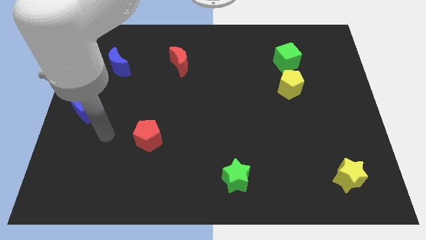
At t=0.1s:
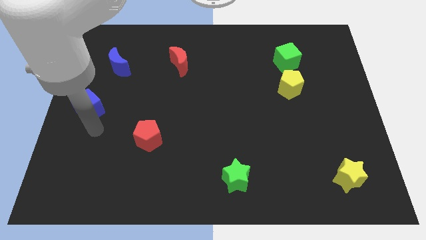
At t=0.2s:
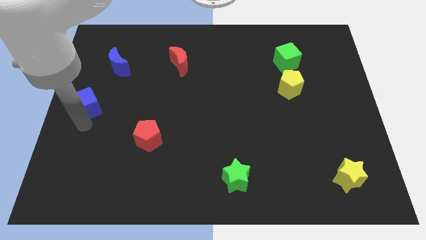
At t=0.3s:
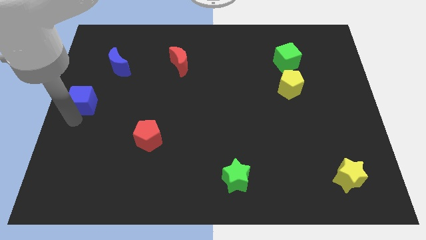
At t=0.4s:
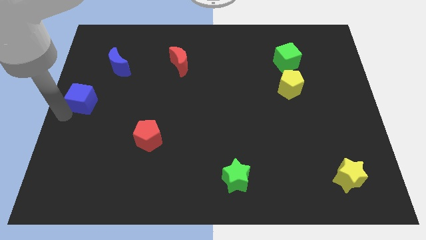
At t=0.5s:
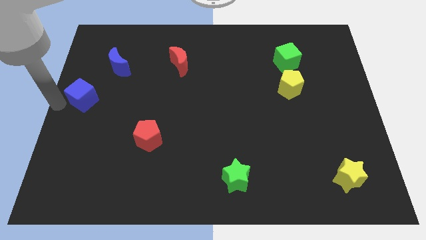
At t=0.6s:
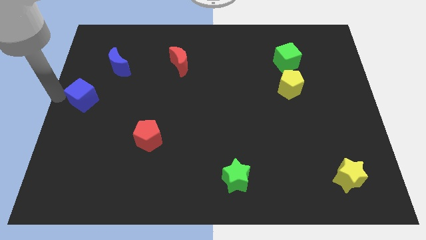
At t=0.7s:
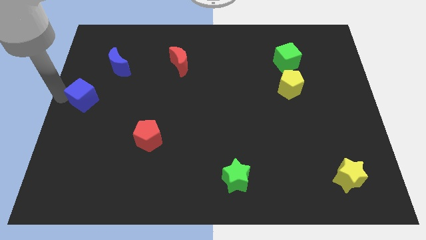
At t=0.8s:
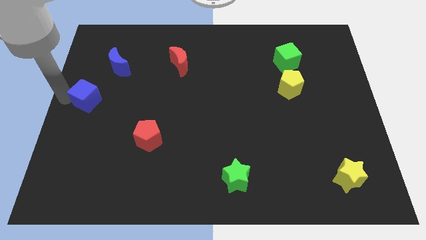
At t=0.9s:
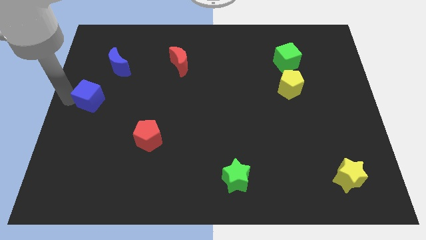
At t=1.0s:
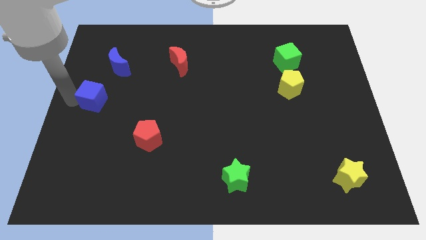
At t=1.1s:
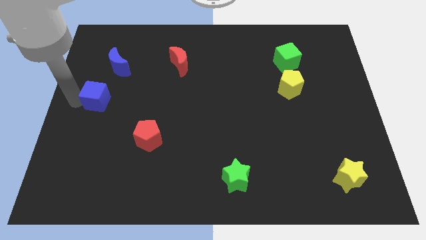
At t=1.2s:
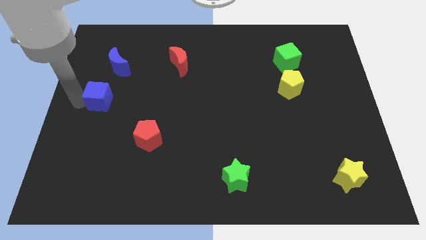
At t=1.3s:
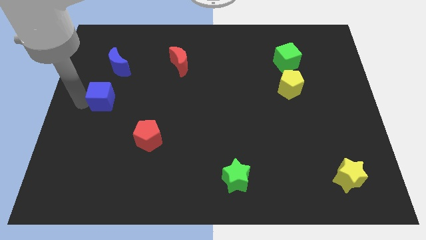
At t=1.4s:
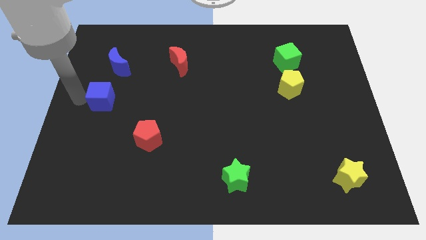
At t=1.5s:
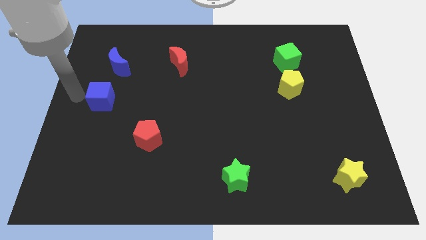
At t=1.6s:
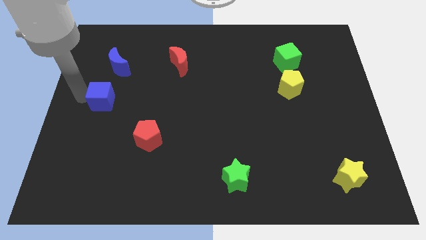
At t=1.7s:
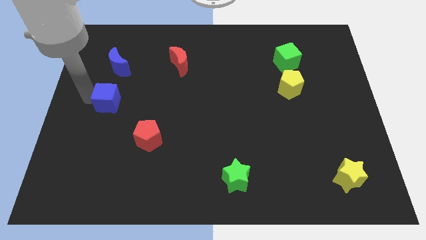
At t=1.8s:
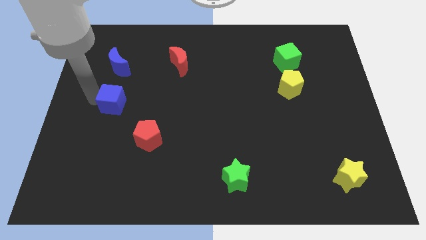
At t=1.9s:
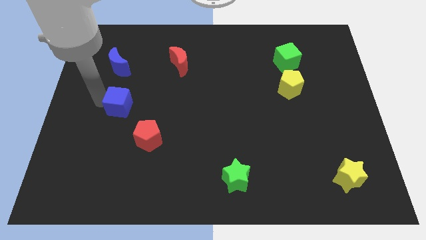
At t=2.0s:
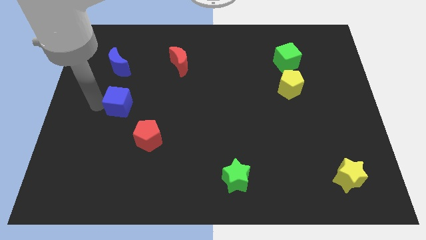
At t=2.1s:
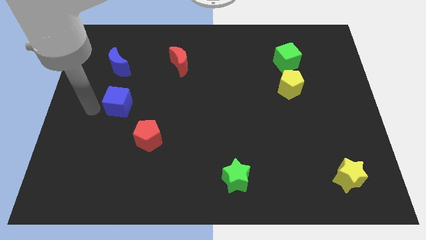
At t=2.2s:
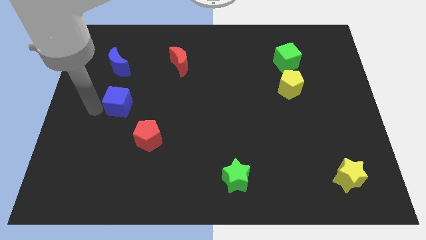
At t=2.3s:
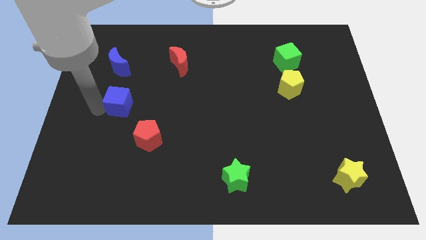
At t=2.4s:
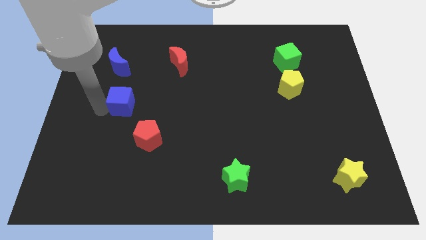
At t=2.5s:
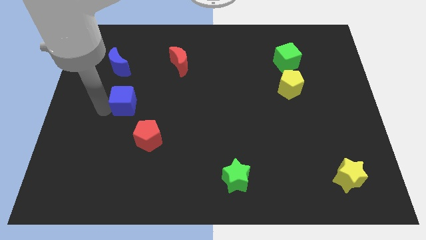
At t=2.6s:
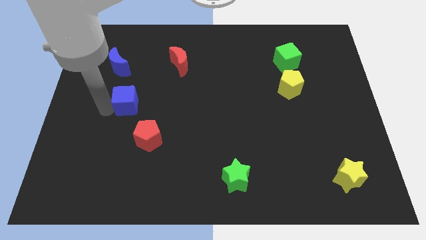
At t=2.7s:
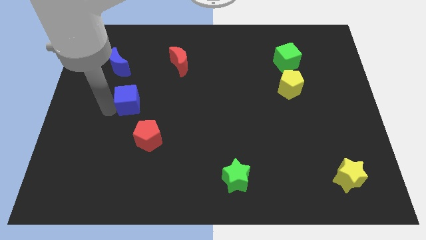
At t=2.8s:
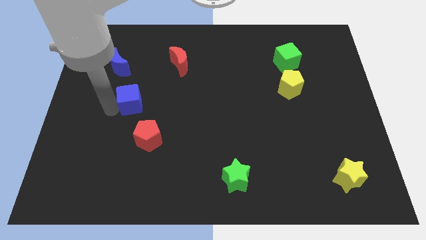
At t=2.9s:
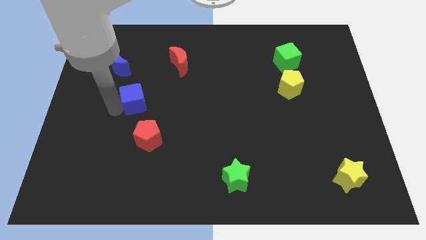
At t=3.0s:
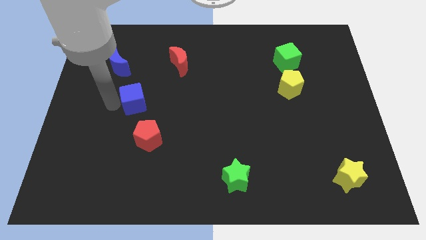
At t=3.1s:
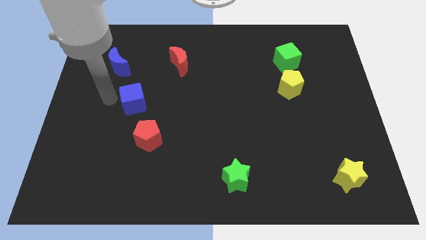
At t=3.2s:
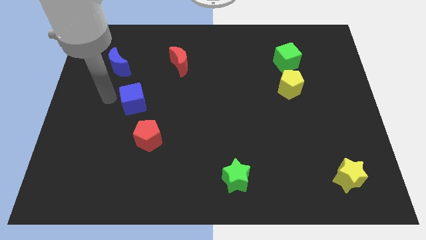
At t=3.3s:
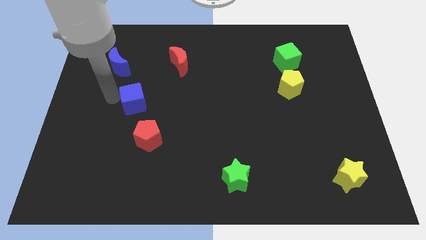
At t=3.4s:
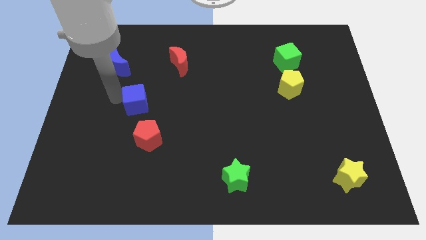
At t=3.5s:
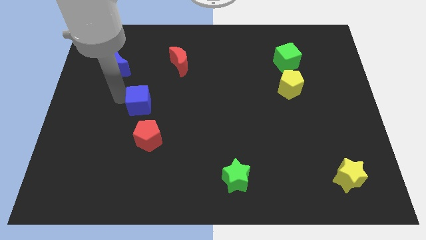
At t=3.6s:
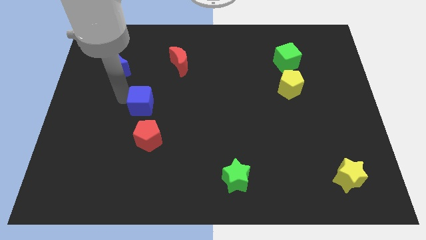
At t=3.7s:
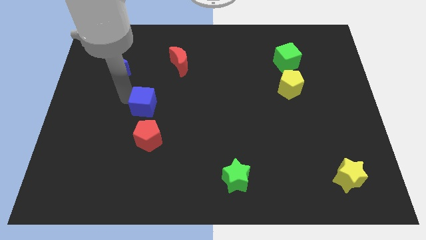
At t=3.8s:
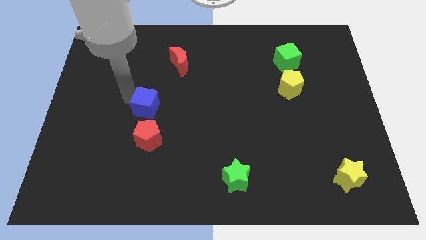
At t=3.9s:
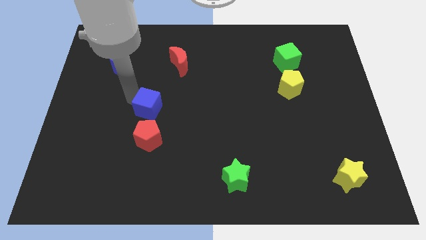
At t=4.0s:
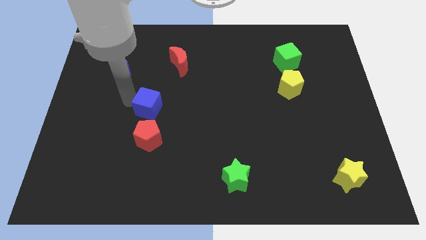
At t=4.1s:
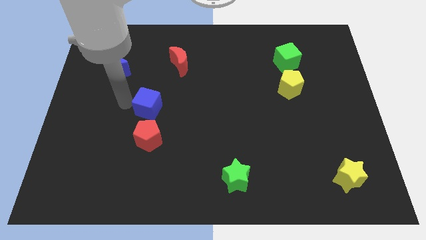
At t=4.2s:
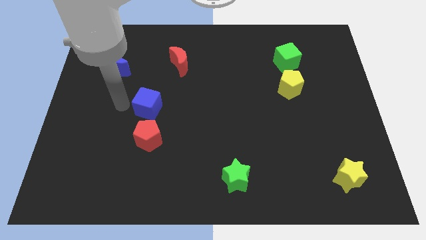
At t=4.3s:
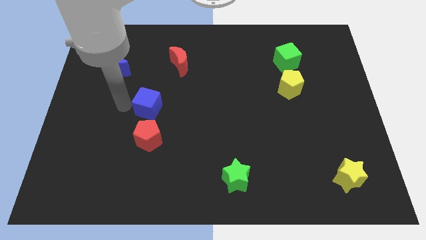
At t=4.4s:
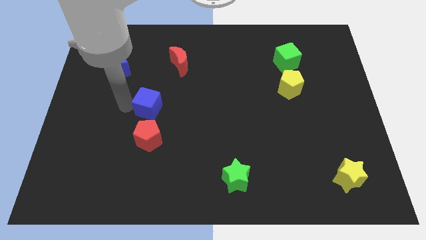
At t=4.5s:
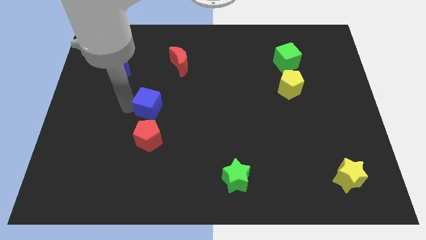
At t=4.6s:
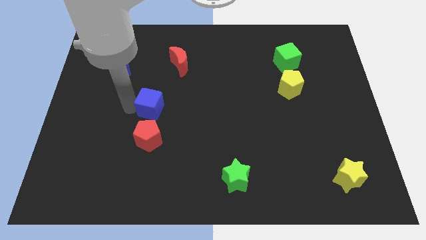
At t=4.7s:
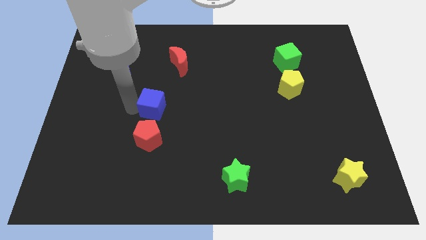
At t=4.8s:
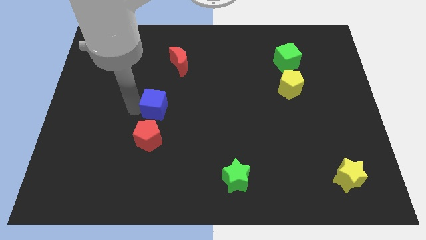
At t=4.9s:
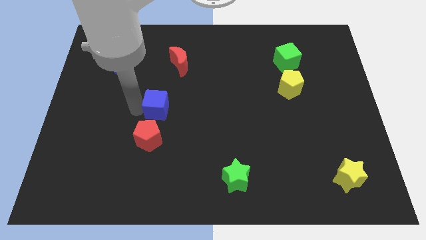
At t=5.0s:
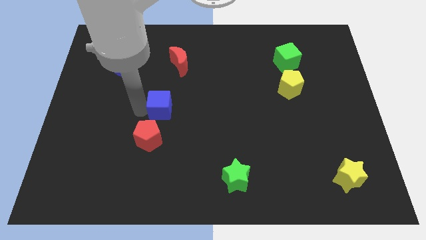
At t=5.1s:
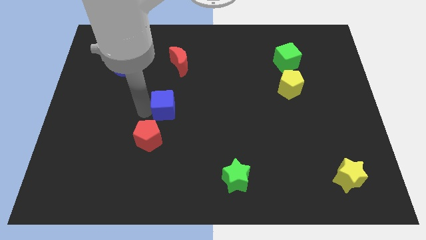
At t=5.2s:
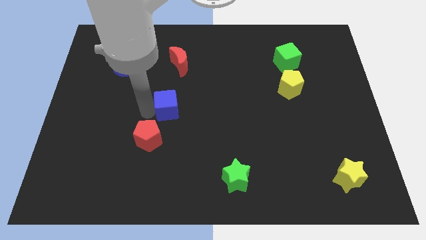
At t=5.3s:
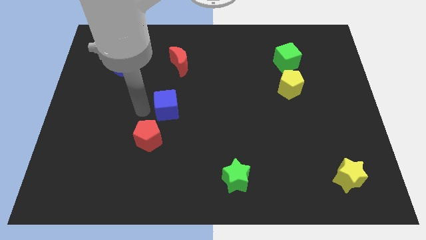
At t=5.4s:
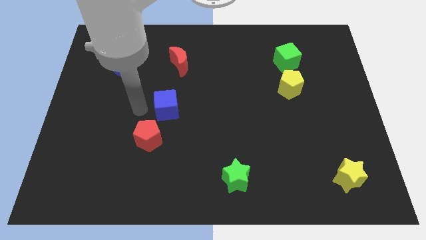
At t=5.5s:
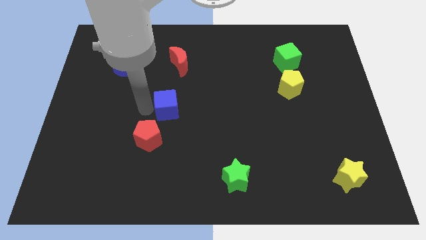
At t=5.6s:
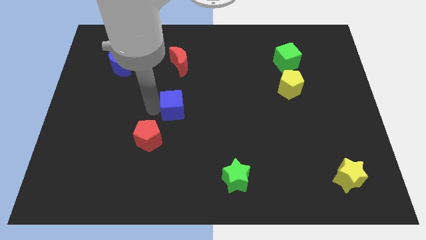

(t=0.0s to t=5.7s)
slide the blue cube to the right

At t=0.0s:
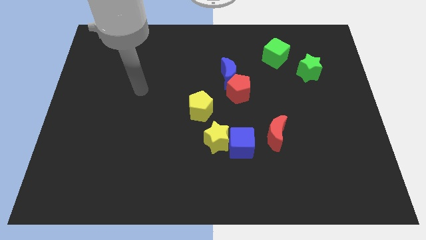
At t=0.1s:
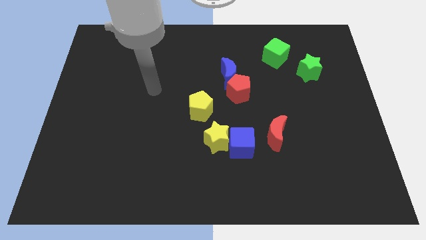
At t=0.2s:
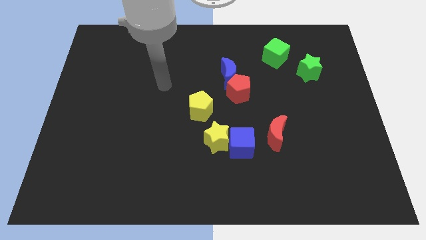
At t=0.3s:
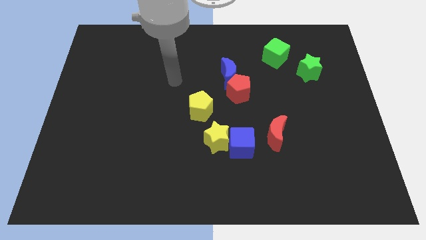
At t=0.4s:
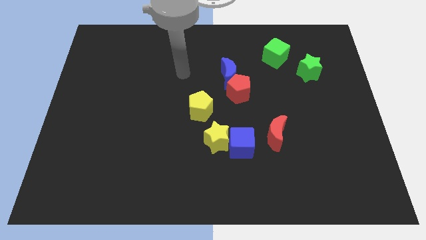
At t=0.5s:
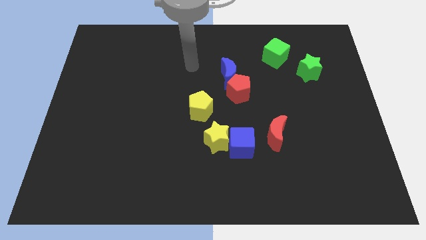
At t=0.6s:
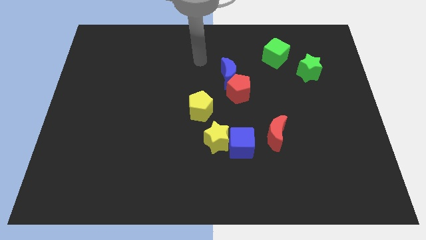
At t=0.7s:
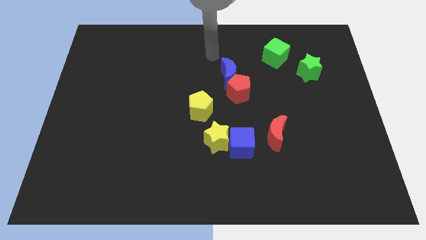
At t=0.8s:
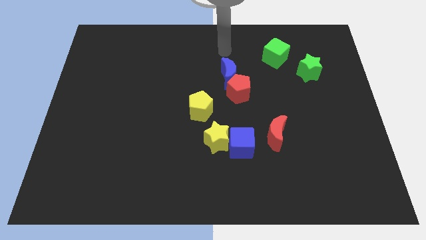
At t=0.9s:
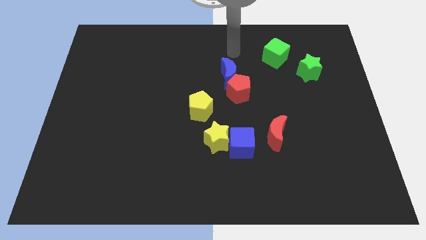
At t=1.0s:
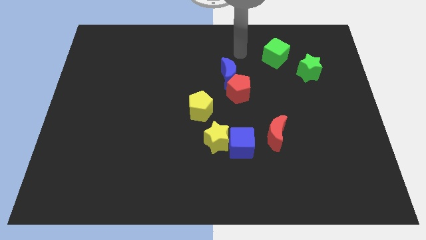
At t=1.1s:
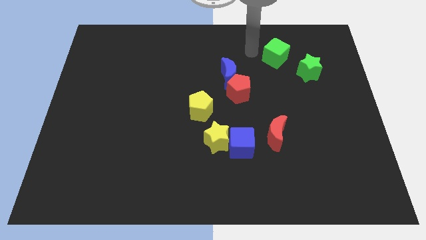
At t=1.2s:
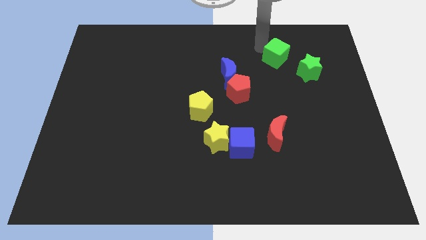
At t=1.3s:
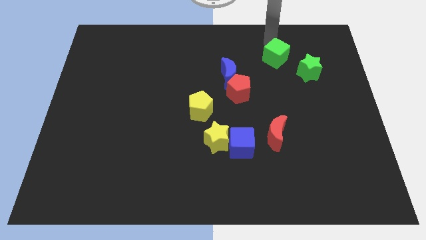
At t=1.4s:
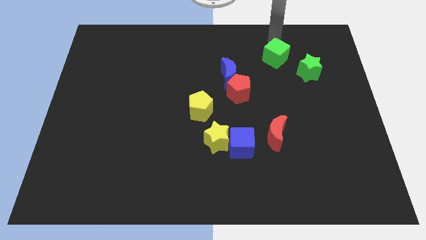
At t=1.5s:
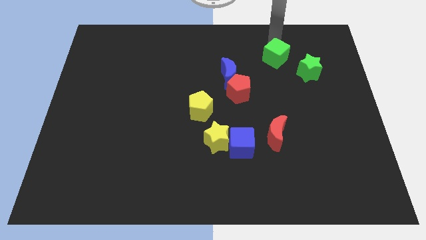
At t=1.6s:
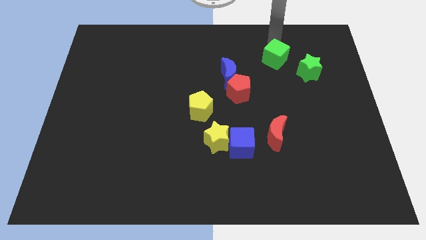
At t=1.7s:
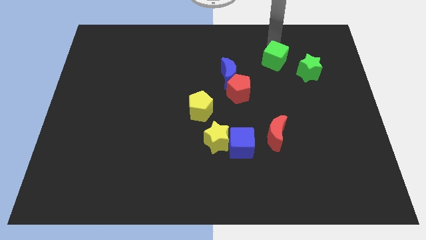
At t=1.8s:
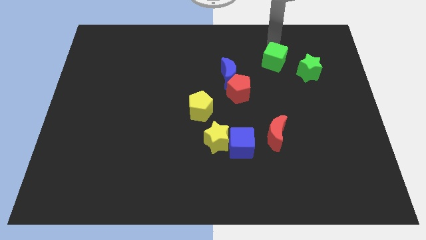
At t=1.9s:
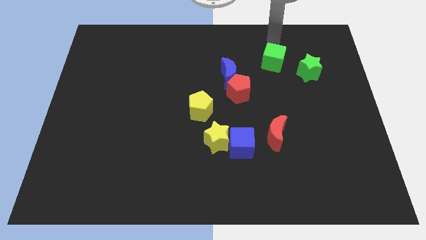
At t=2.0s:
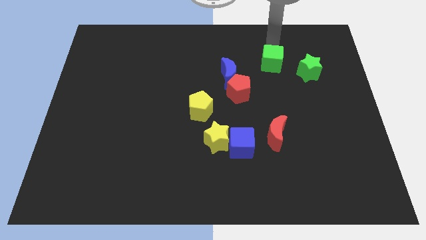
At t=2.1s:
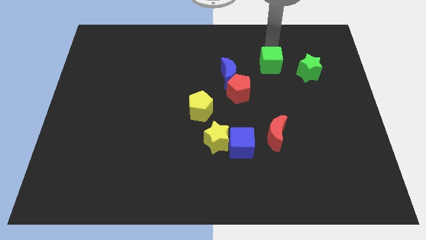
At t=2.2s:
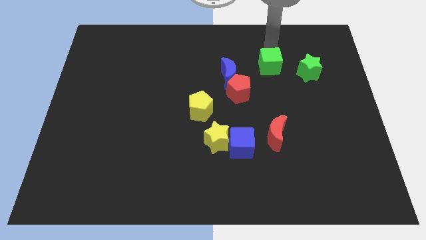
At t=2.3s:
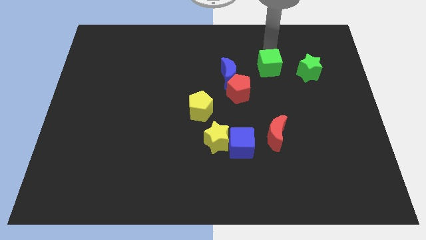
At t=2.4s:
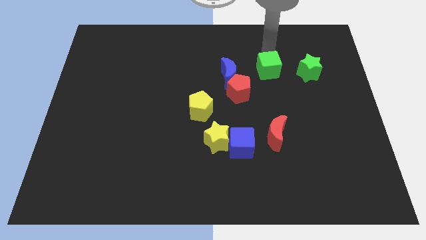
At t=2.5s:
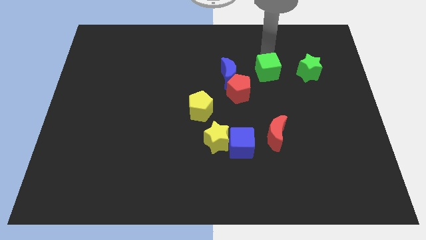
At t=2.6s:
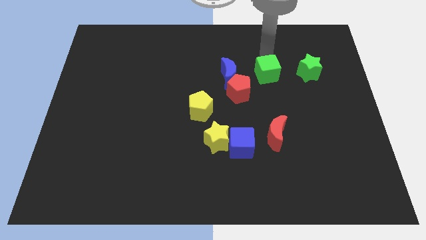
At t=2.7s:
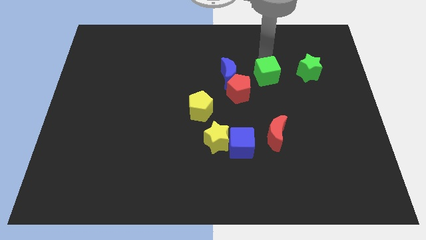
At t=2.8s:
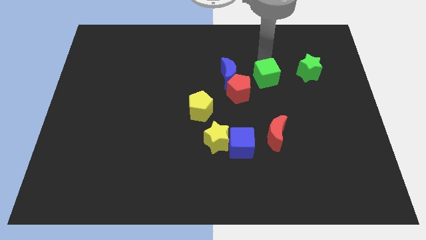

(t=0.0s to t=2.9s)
slightly slide the green cube down
